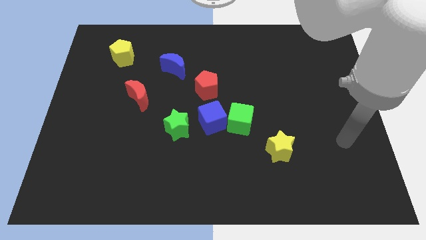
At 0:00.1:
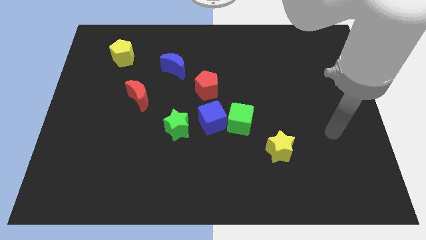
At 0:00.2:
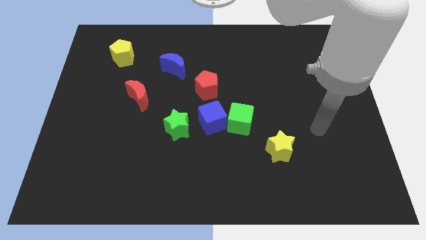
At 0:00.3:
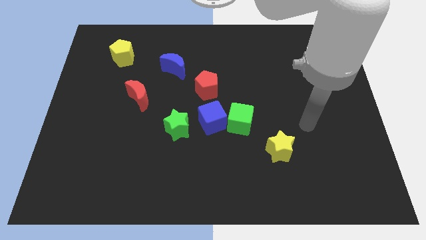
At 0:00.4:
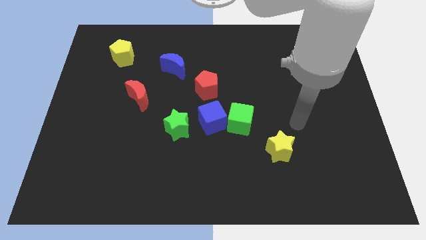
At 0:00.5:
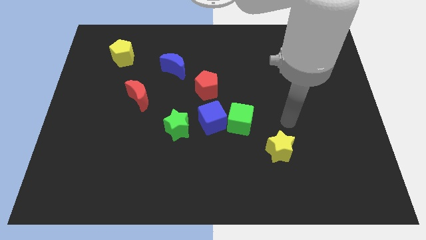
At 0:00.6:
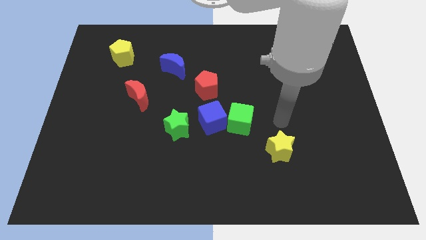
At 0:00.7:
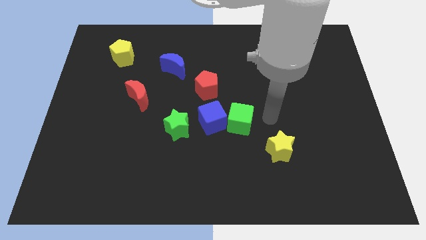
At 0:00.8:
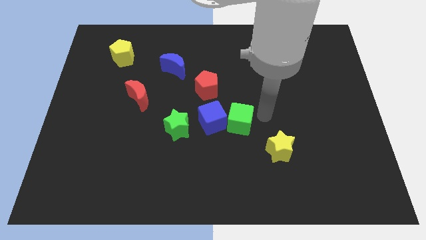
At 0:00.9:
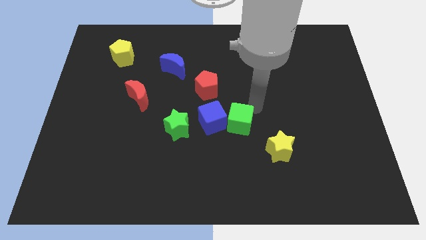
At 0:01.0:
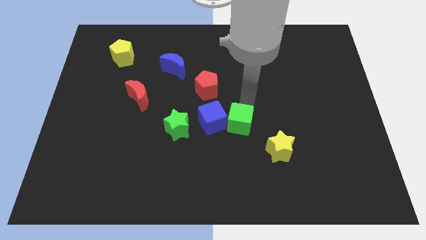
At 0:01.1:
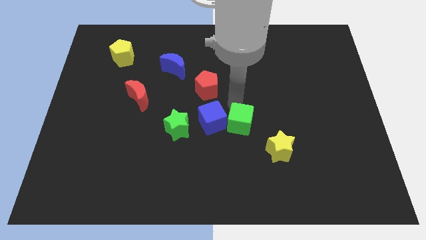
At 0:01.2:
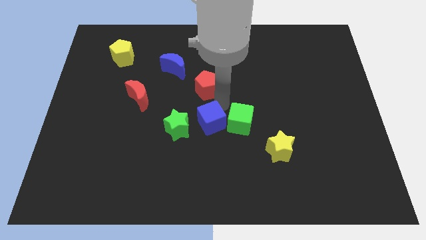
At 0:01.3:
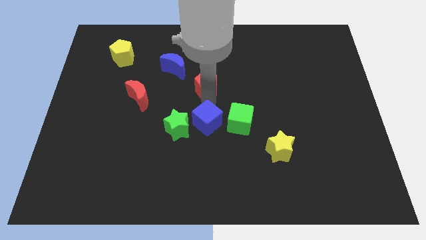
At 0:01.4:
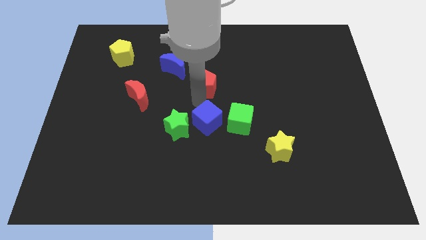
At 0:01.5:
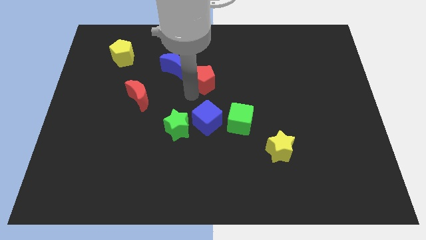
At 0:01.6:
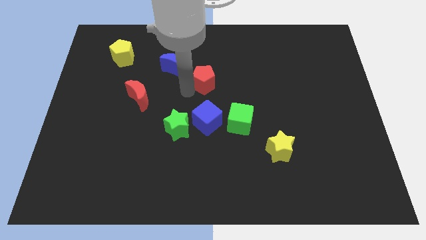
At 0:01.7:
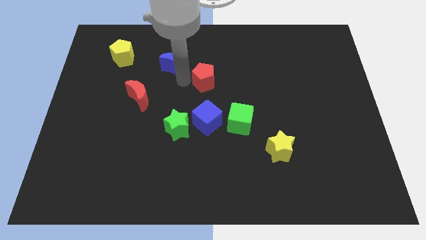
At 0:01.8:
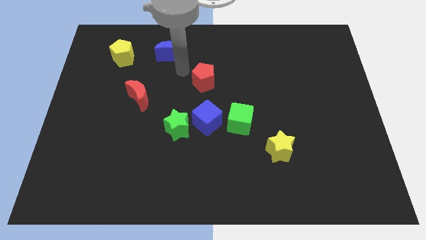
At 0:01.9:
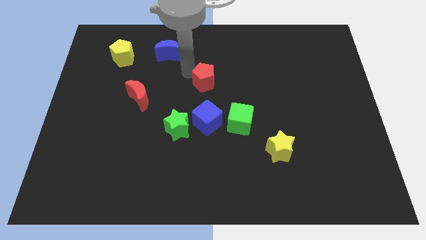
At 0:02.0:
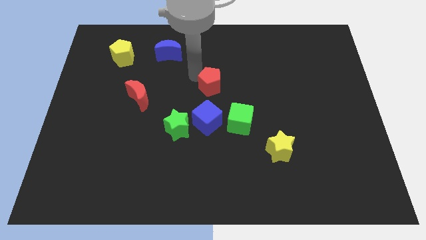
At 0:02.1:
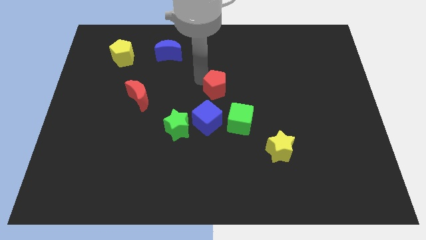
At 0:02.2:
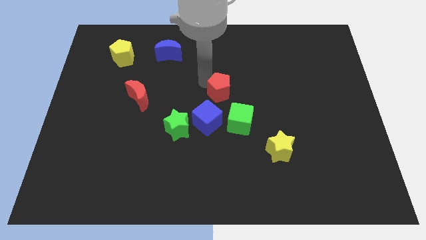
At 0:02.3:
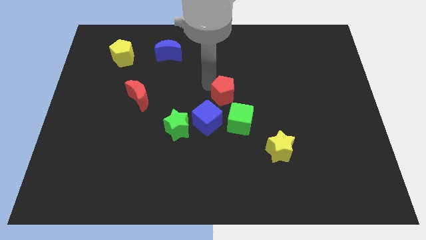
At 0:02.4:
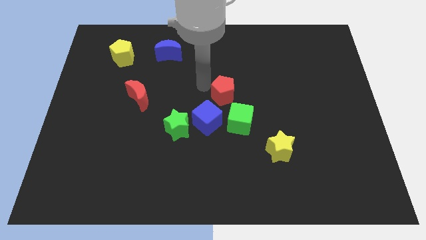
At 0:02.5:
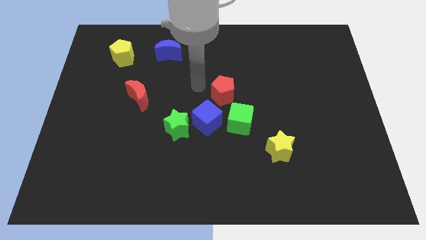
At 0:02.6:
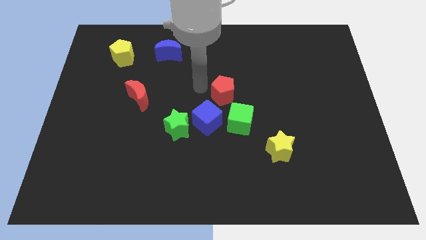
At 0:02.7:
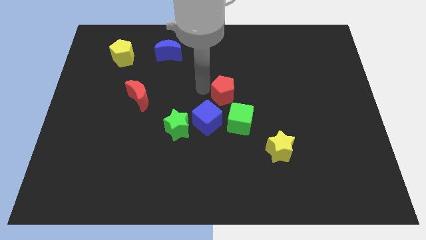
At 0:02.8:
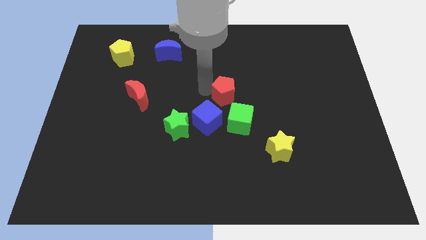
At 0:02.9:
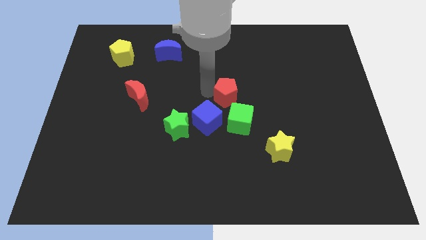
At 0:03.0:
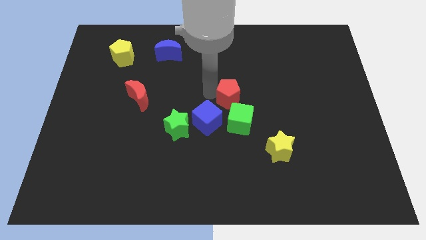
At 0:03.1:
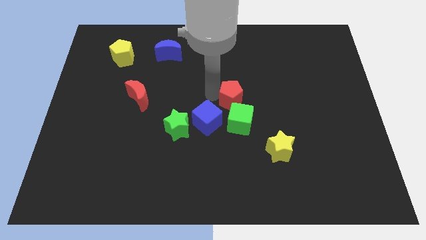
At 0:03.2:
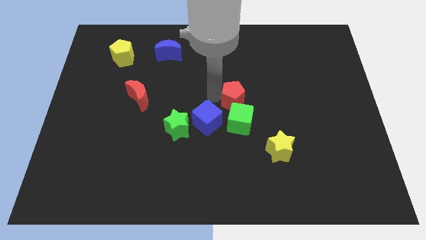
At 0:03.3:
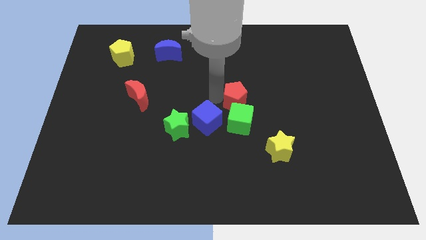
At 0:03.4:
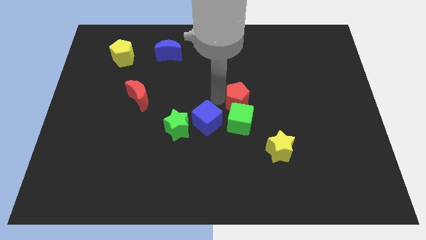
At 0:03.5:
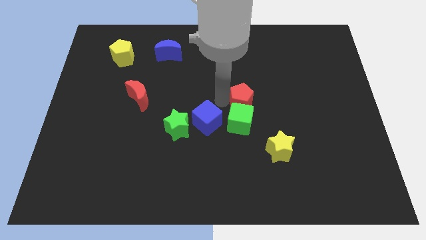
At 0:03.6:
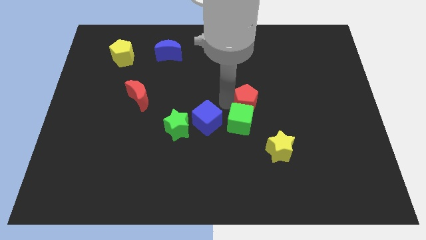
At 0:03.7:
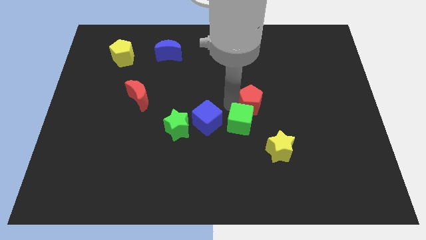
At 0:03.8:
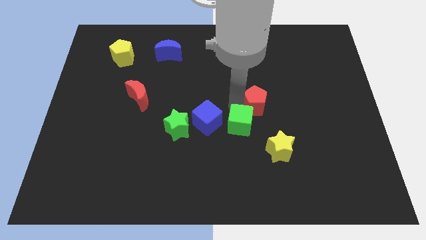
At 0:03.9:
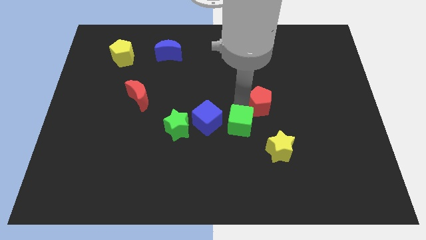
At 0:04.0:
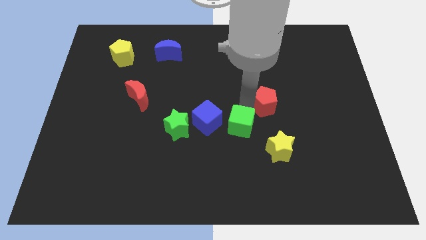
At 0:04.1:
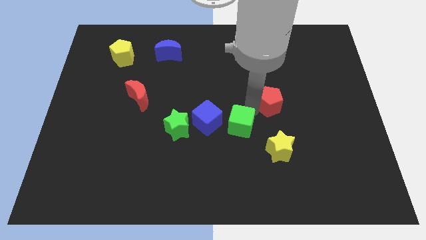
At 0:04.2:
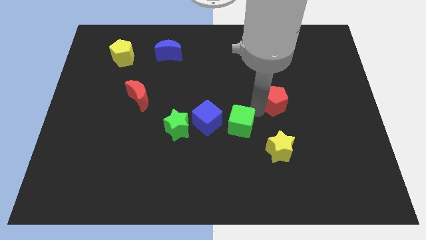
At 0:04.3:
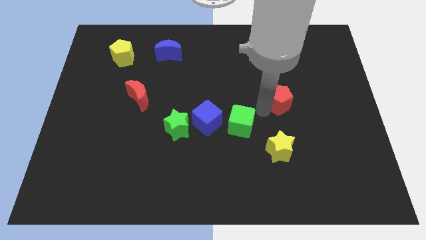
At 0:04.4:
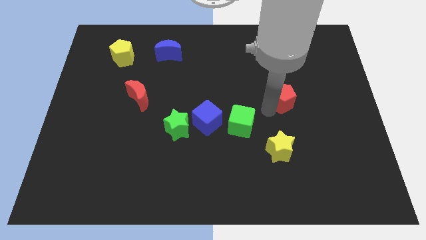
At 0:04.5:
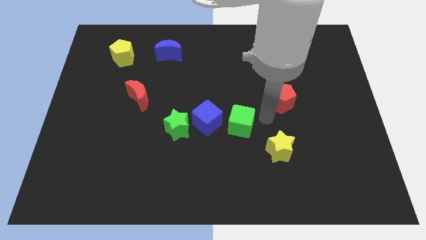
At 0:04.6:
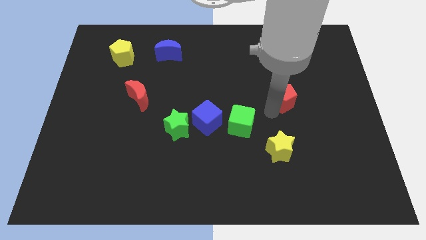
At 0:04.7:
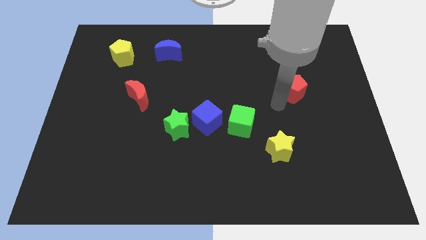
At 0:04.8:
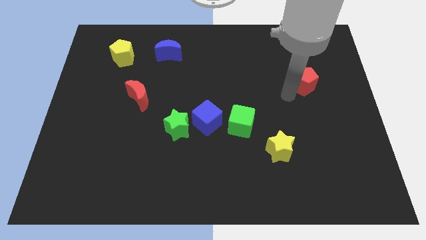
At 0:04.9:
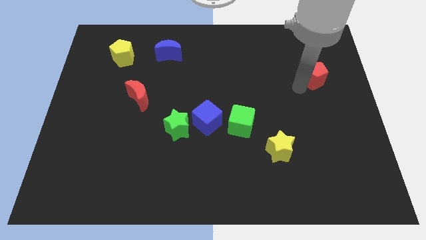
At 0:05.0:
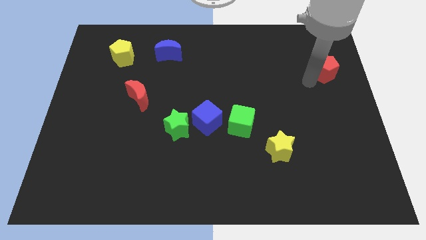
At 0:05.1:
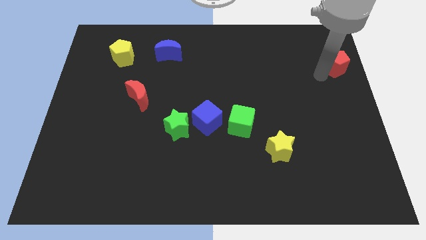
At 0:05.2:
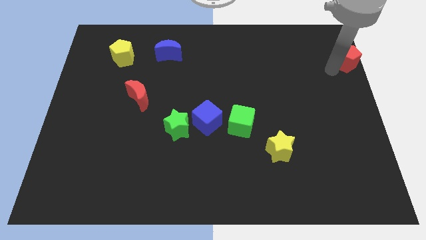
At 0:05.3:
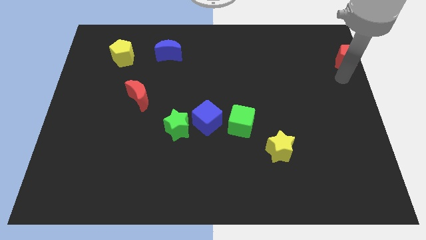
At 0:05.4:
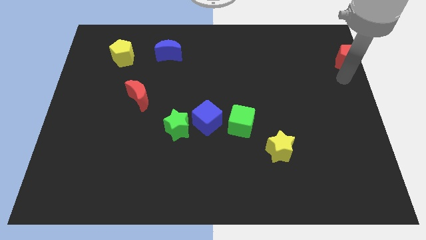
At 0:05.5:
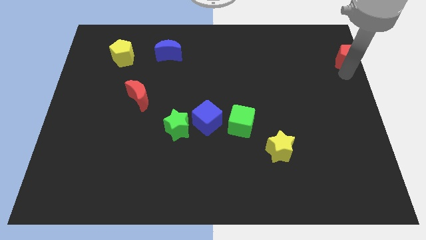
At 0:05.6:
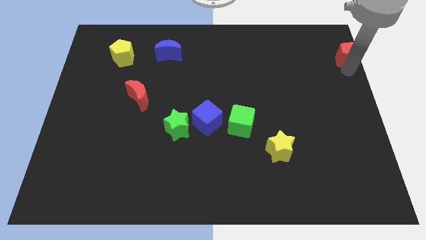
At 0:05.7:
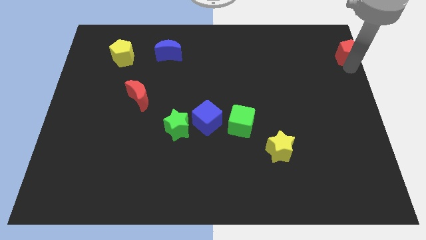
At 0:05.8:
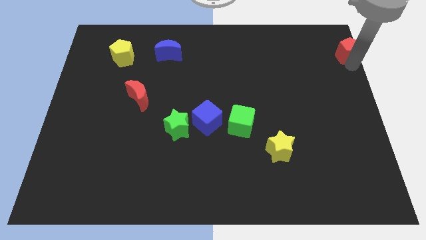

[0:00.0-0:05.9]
put the red pentagon to the upper right corner

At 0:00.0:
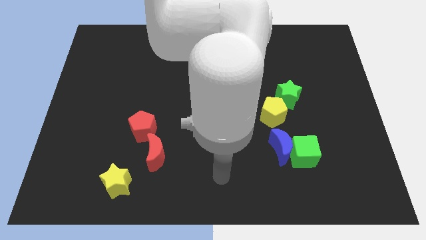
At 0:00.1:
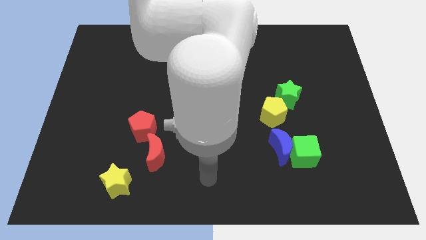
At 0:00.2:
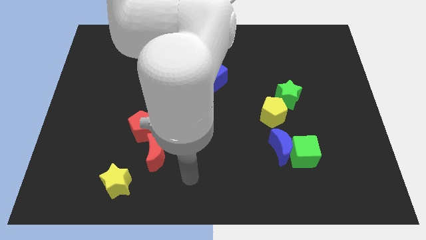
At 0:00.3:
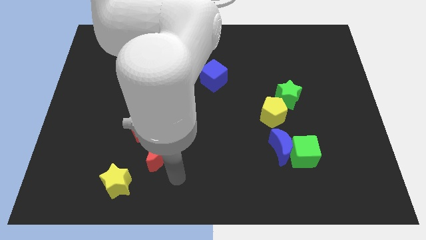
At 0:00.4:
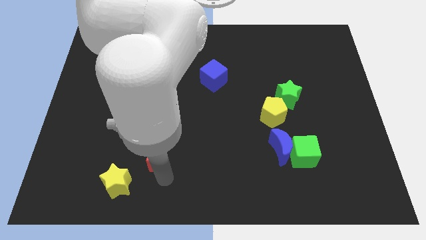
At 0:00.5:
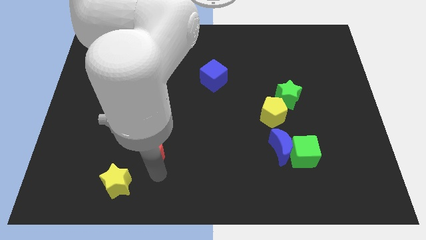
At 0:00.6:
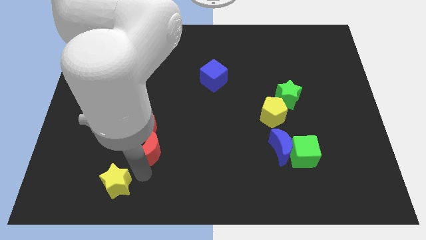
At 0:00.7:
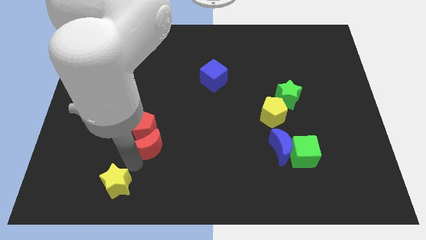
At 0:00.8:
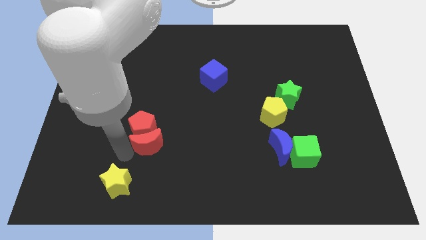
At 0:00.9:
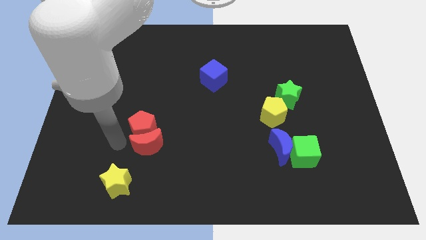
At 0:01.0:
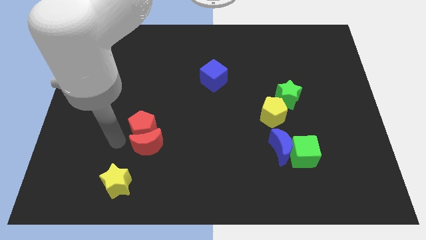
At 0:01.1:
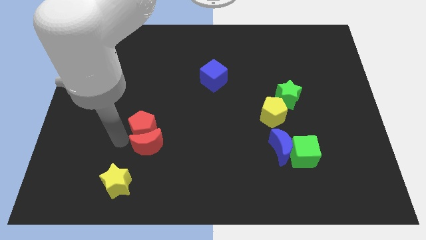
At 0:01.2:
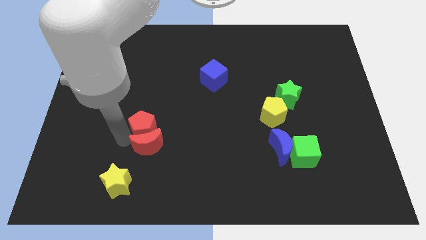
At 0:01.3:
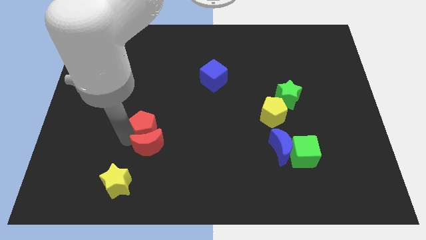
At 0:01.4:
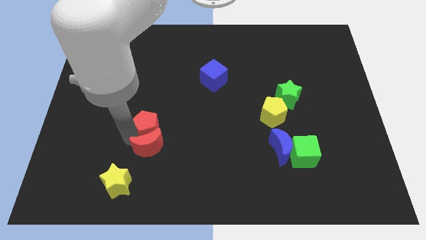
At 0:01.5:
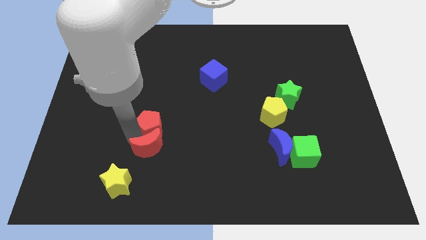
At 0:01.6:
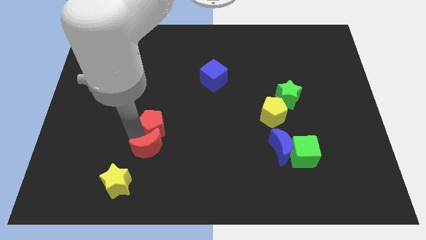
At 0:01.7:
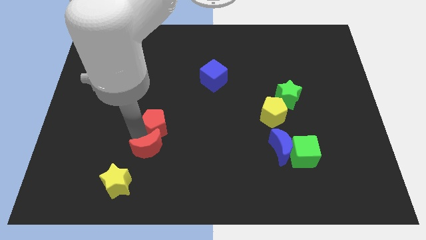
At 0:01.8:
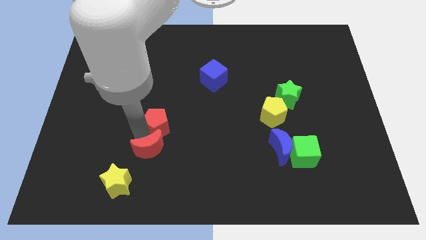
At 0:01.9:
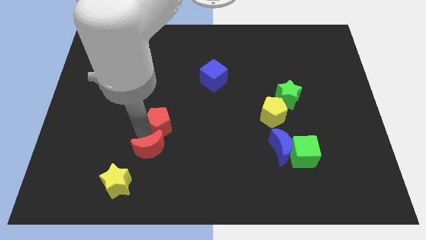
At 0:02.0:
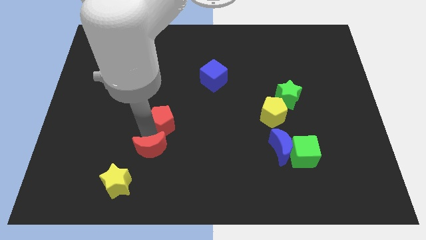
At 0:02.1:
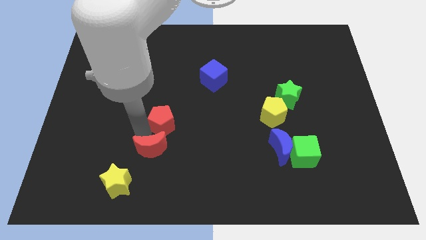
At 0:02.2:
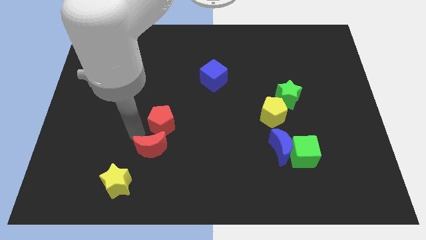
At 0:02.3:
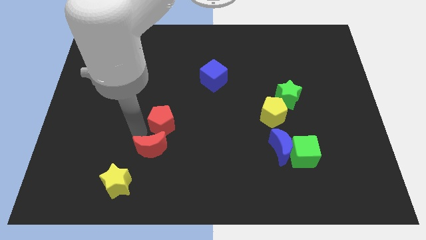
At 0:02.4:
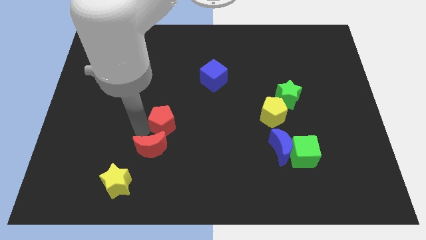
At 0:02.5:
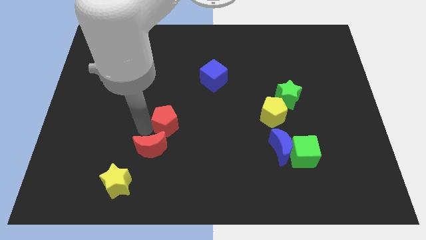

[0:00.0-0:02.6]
push the red pentagon to the middle of the board
